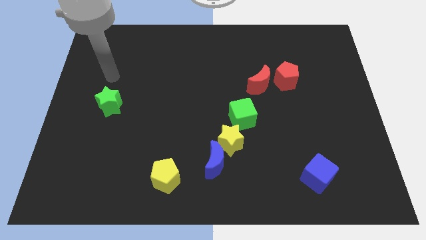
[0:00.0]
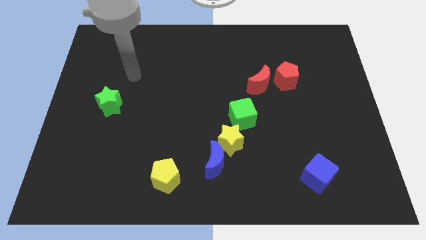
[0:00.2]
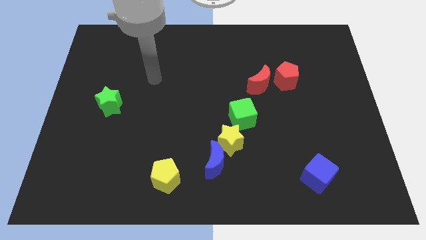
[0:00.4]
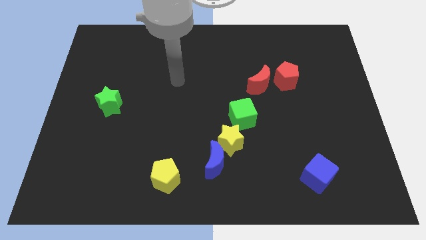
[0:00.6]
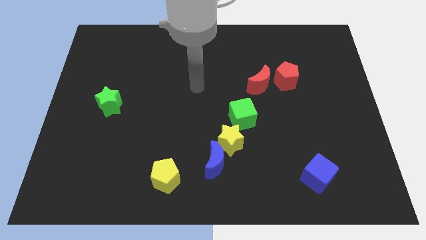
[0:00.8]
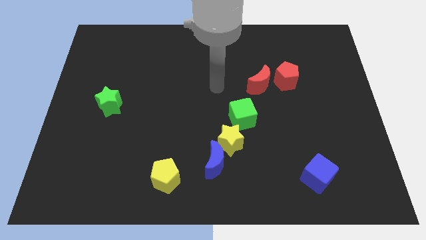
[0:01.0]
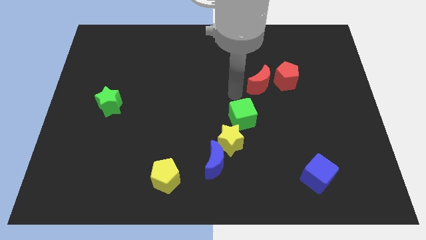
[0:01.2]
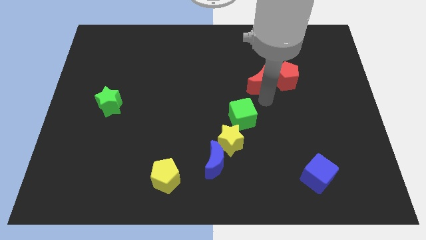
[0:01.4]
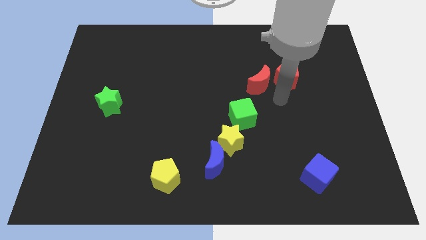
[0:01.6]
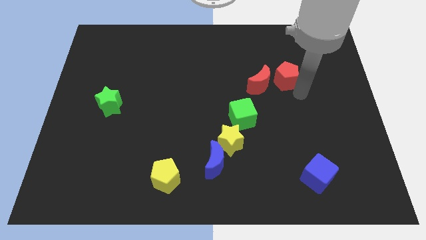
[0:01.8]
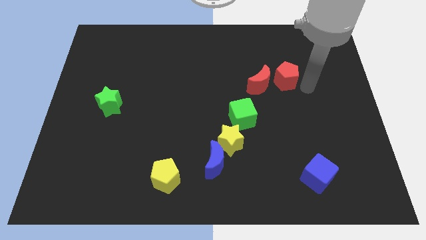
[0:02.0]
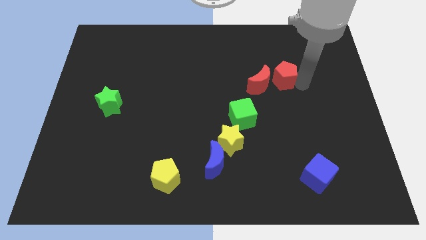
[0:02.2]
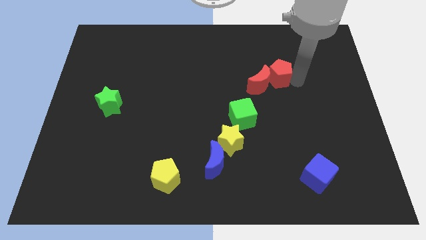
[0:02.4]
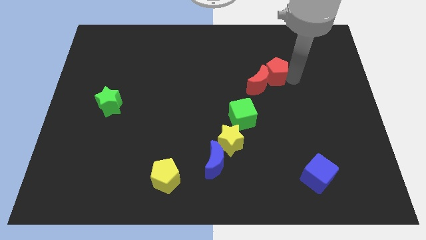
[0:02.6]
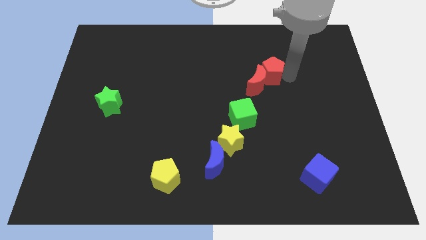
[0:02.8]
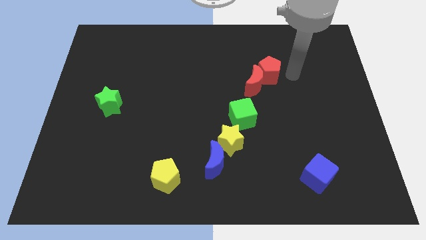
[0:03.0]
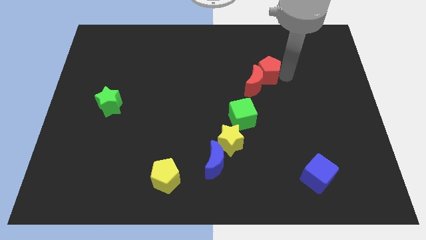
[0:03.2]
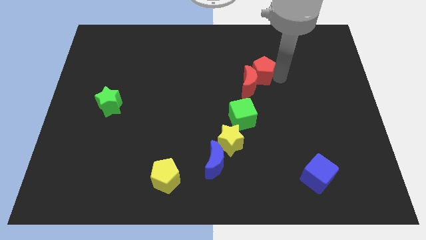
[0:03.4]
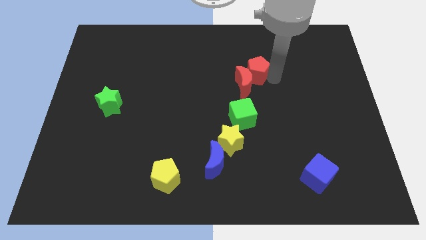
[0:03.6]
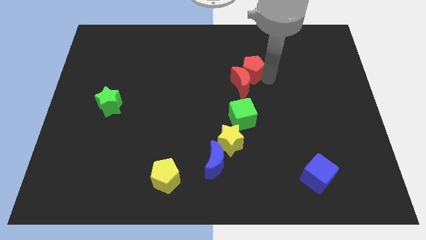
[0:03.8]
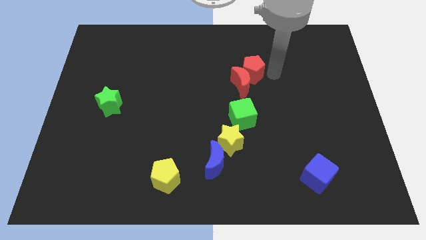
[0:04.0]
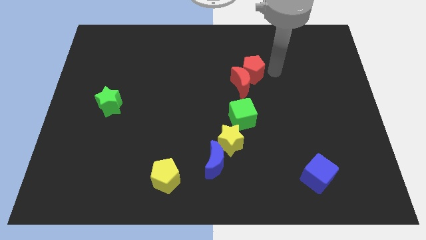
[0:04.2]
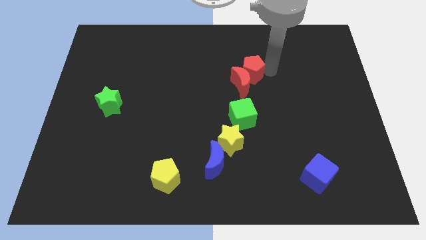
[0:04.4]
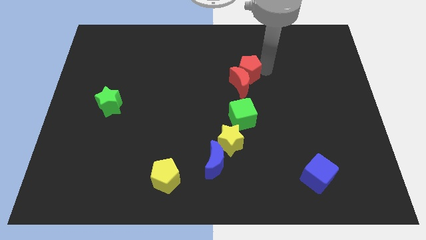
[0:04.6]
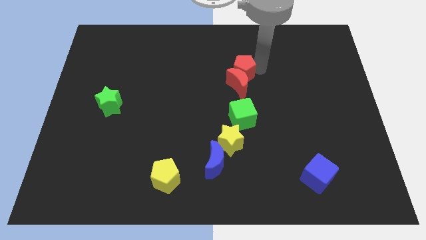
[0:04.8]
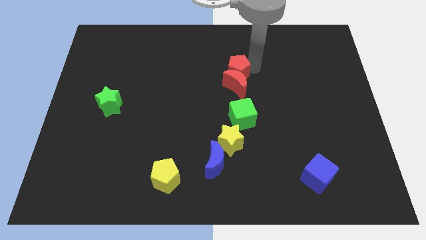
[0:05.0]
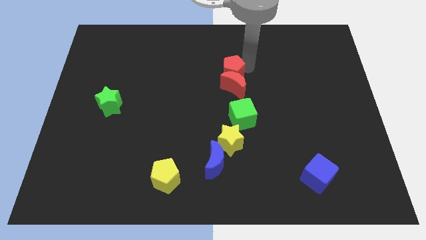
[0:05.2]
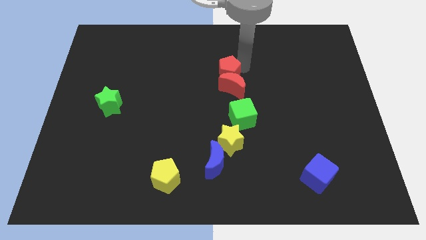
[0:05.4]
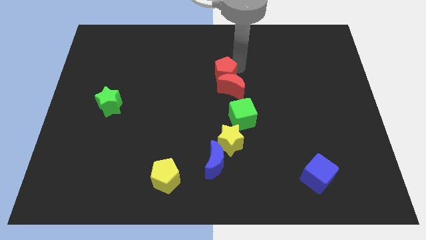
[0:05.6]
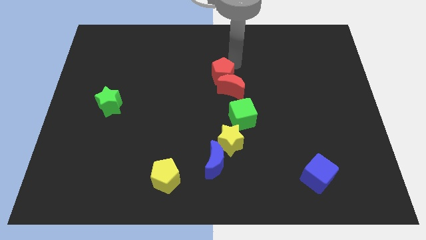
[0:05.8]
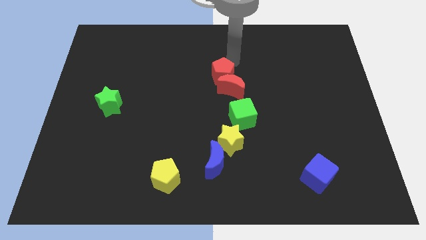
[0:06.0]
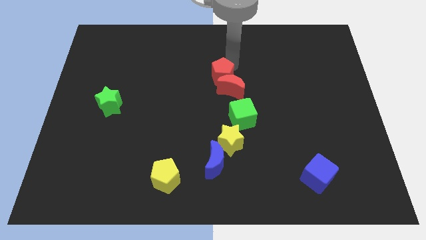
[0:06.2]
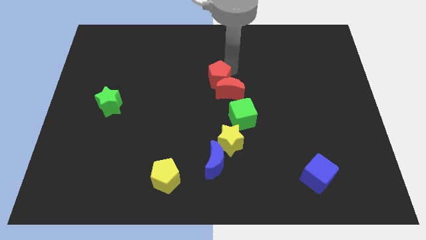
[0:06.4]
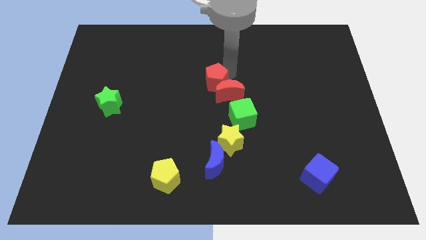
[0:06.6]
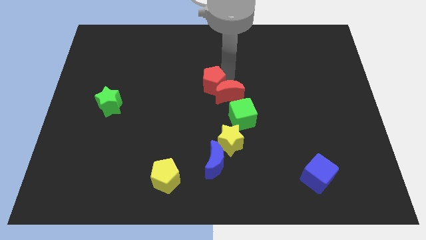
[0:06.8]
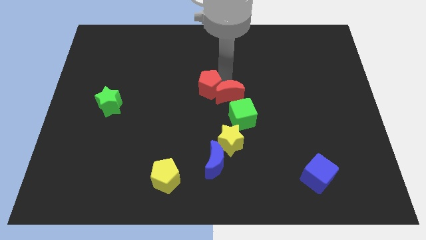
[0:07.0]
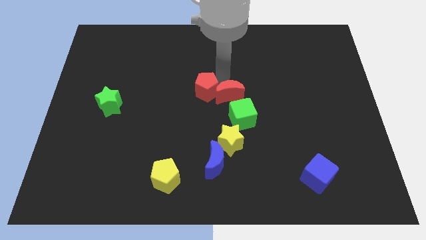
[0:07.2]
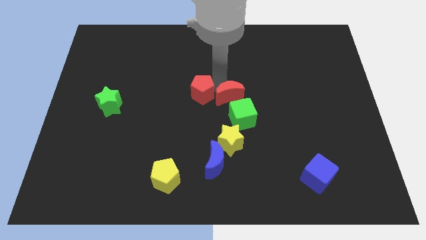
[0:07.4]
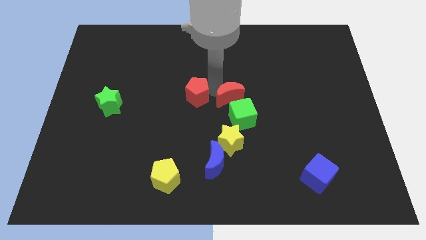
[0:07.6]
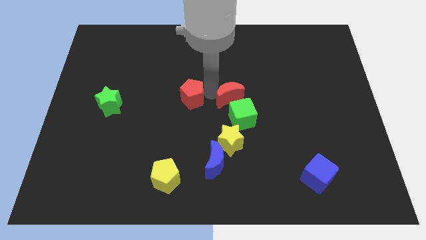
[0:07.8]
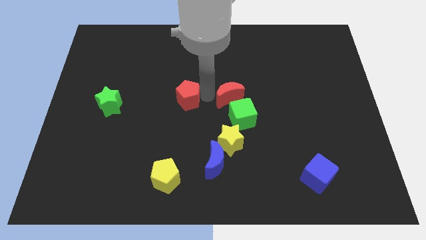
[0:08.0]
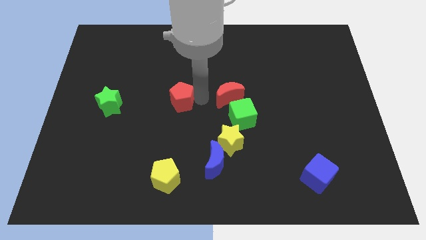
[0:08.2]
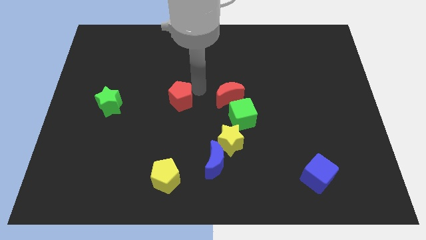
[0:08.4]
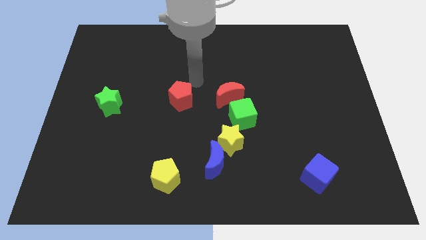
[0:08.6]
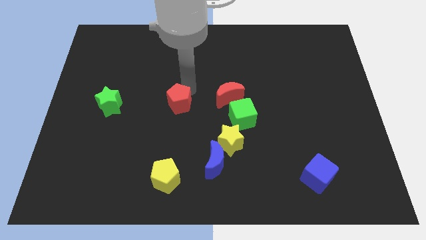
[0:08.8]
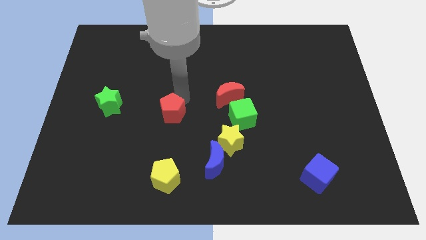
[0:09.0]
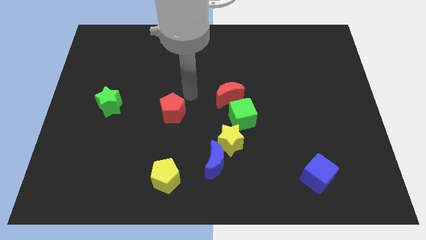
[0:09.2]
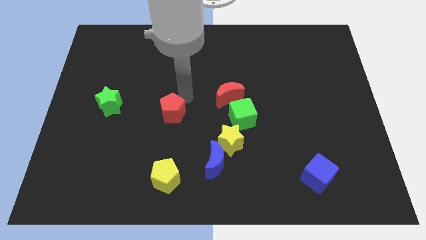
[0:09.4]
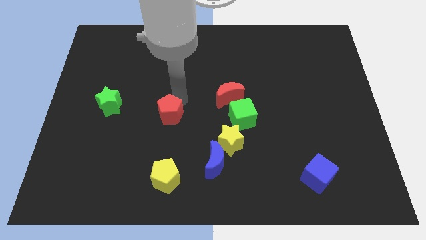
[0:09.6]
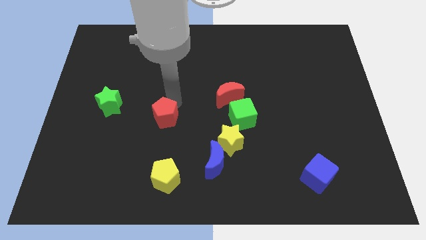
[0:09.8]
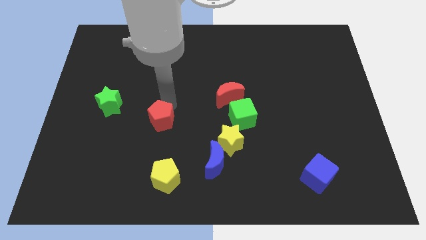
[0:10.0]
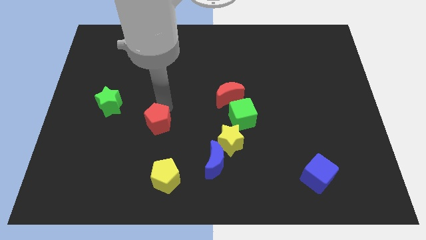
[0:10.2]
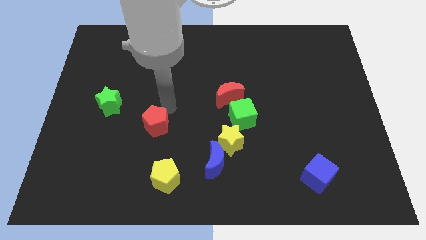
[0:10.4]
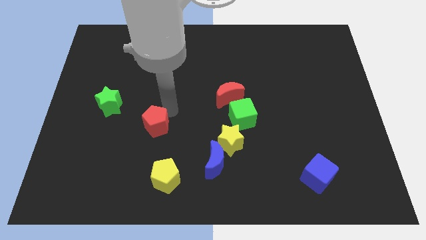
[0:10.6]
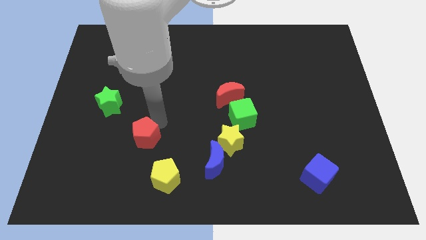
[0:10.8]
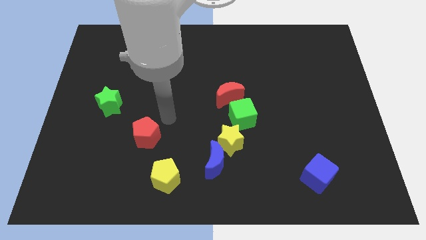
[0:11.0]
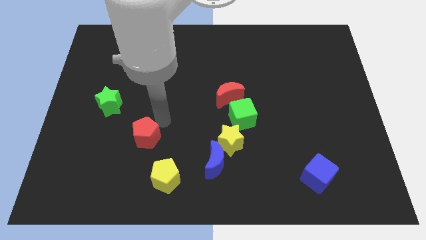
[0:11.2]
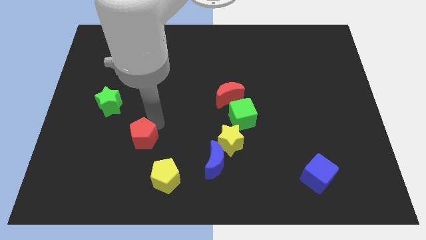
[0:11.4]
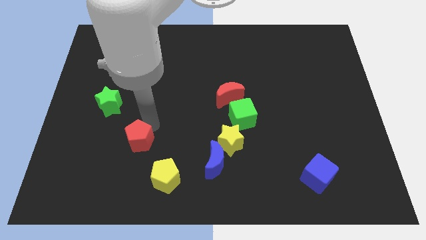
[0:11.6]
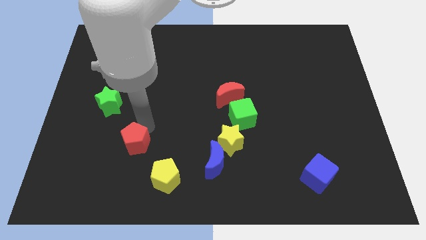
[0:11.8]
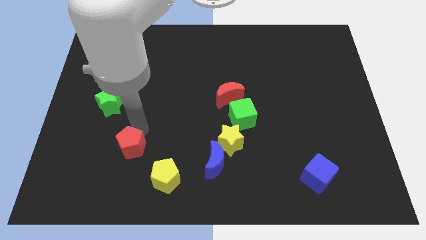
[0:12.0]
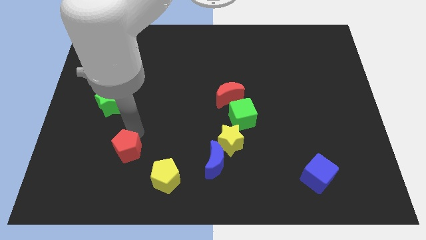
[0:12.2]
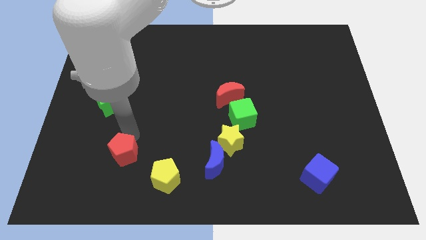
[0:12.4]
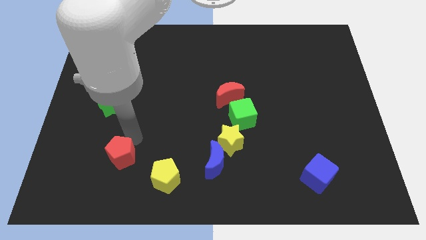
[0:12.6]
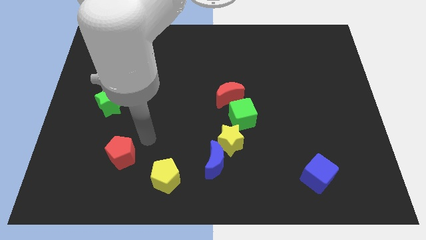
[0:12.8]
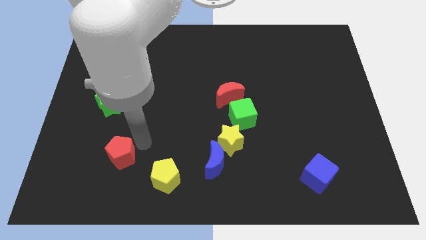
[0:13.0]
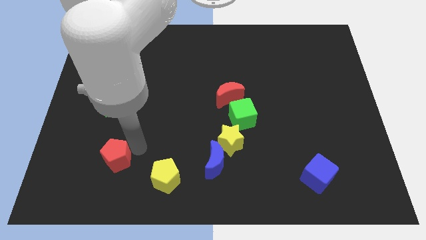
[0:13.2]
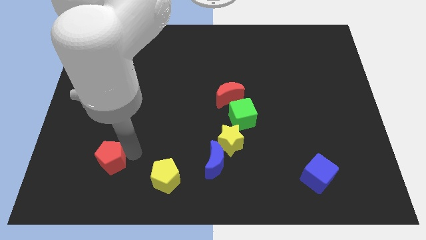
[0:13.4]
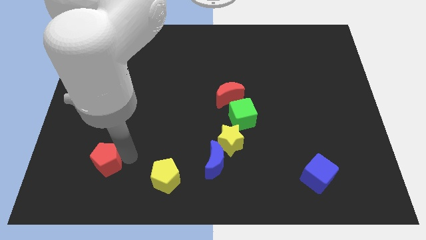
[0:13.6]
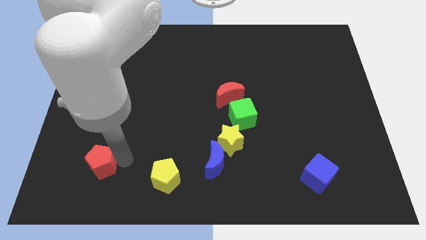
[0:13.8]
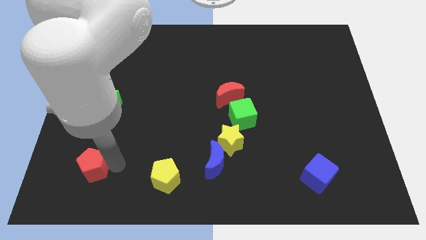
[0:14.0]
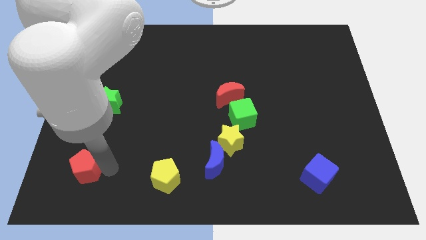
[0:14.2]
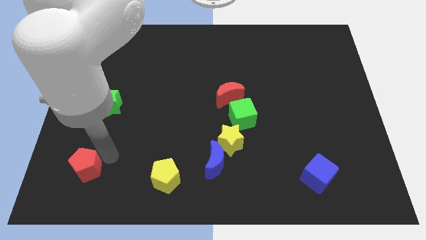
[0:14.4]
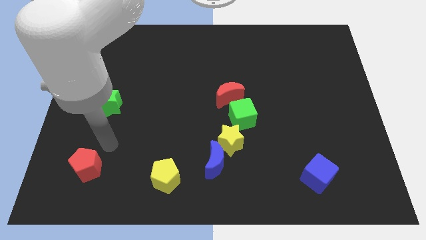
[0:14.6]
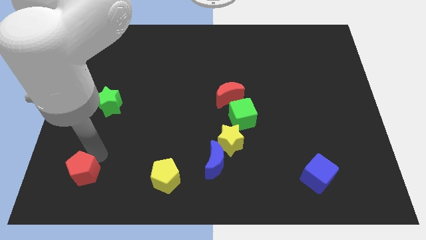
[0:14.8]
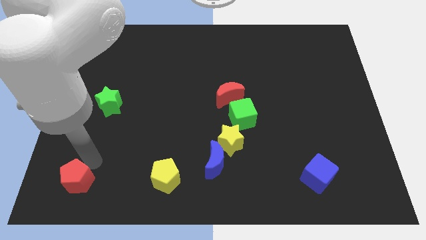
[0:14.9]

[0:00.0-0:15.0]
slide the red pentagon to the bottom left corner
